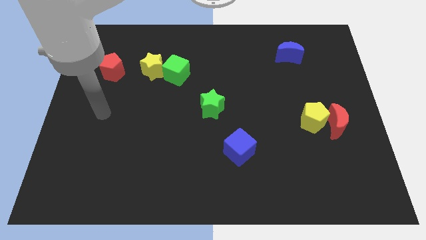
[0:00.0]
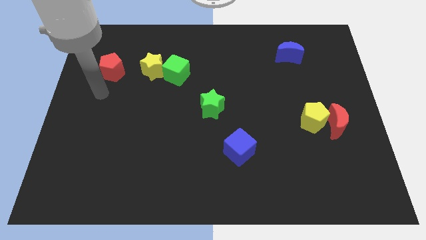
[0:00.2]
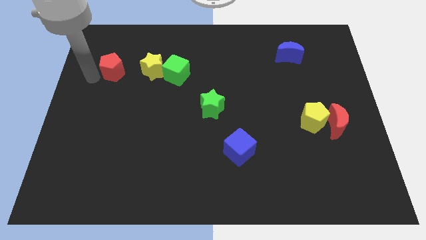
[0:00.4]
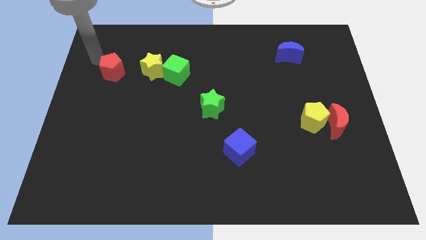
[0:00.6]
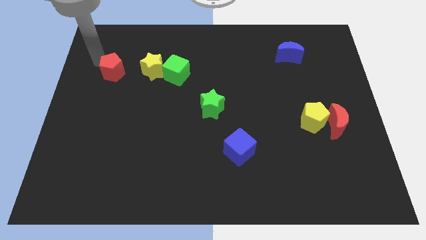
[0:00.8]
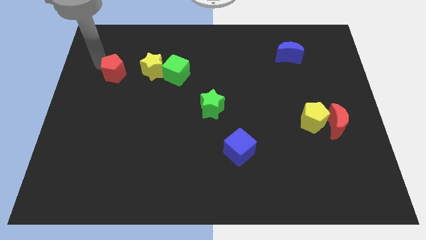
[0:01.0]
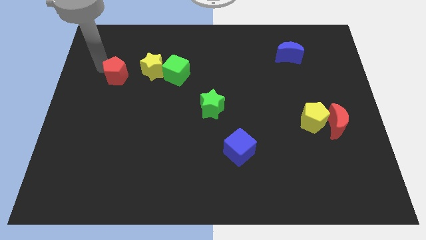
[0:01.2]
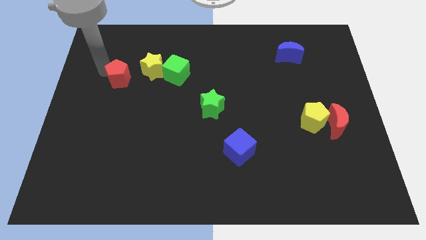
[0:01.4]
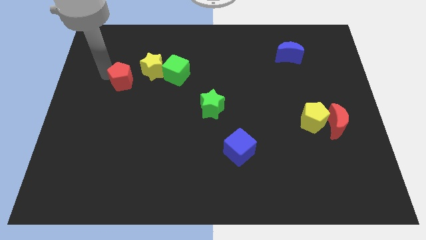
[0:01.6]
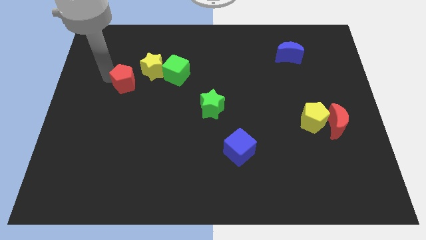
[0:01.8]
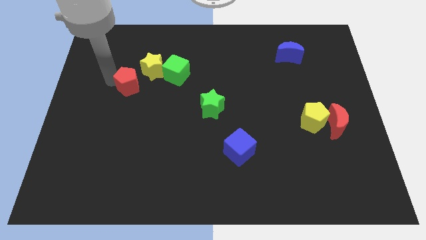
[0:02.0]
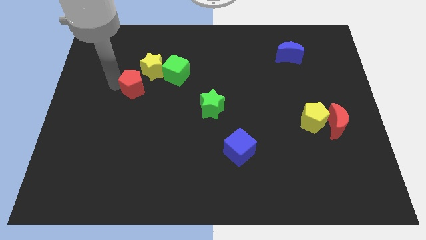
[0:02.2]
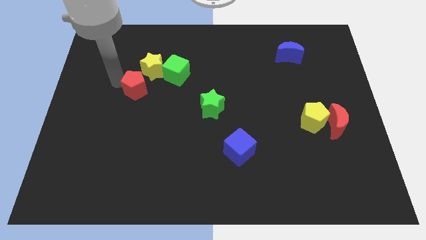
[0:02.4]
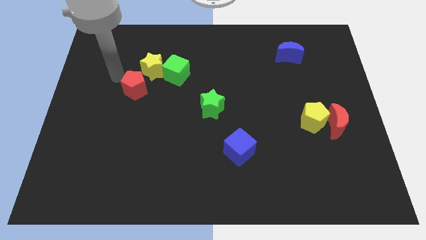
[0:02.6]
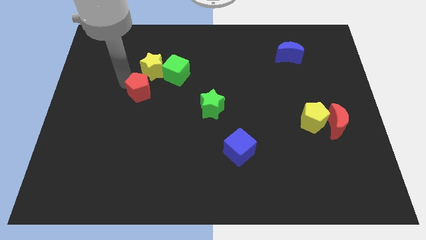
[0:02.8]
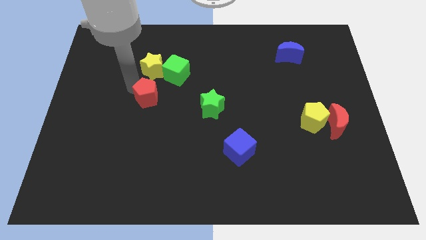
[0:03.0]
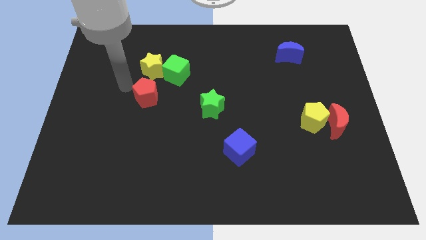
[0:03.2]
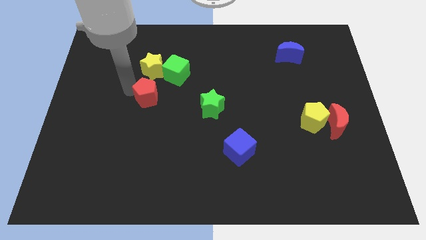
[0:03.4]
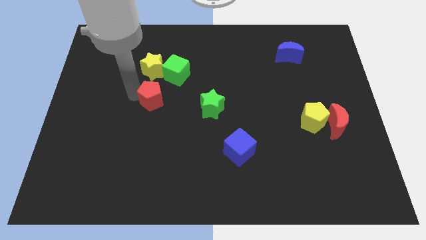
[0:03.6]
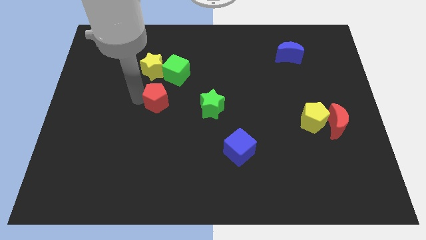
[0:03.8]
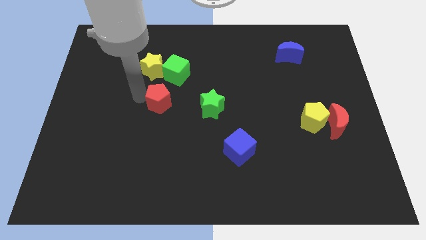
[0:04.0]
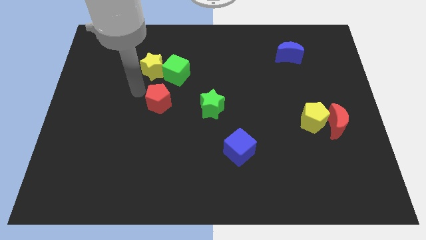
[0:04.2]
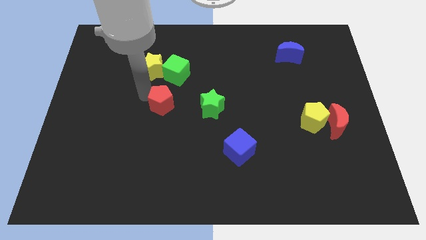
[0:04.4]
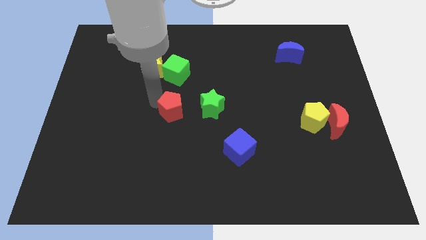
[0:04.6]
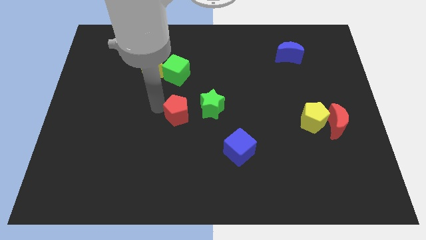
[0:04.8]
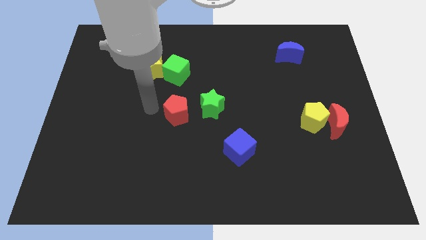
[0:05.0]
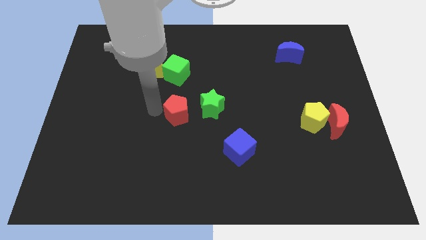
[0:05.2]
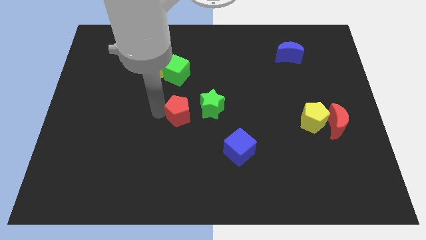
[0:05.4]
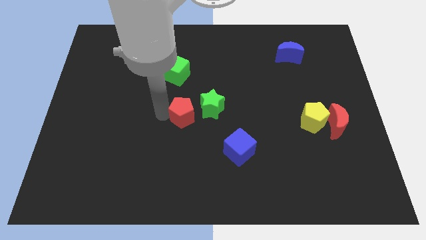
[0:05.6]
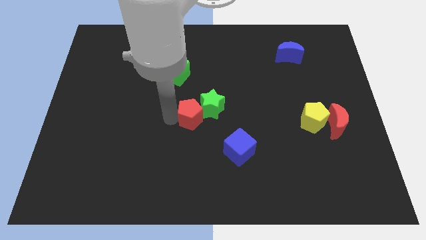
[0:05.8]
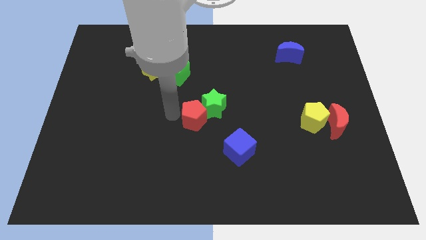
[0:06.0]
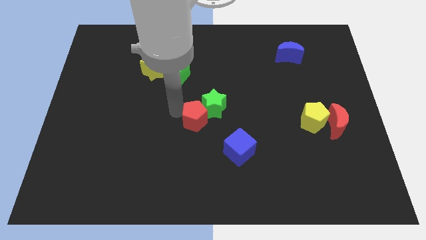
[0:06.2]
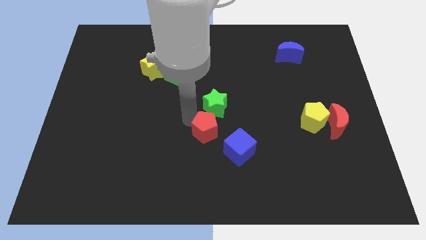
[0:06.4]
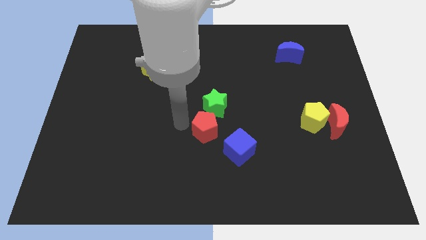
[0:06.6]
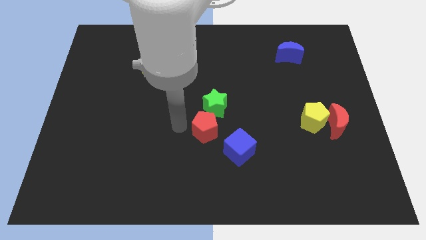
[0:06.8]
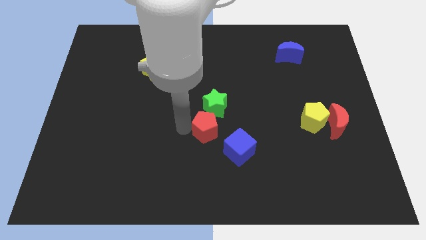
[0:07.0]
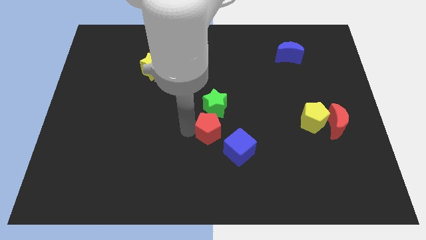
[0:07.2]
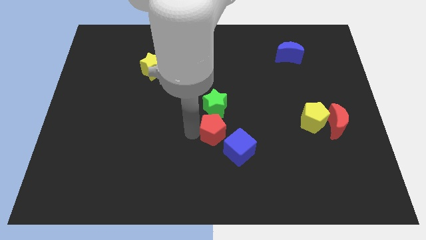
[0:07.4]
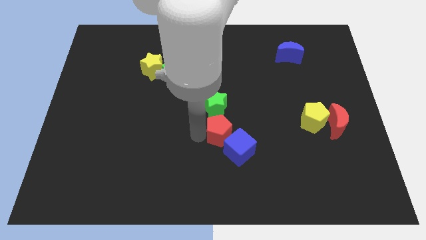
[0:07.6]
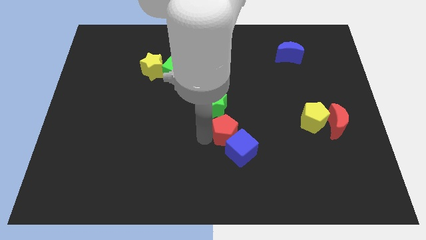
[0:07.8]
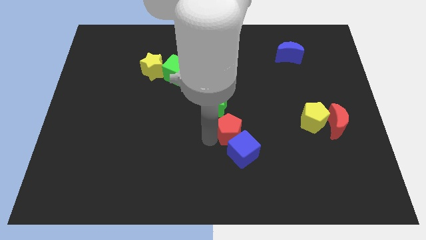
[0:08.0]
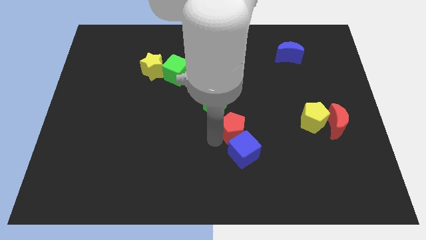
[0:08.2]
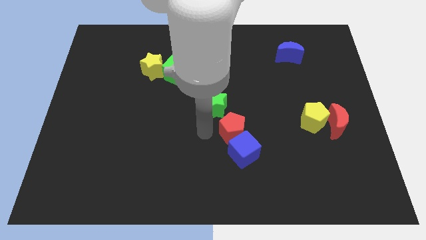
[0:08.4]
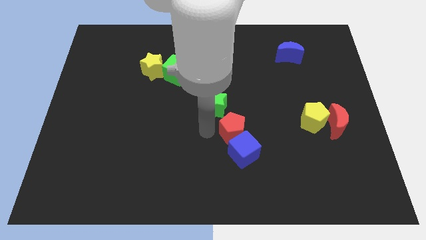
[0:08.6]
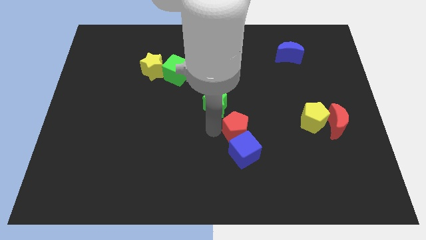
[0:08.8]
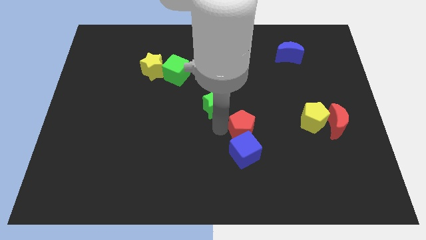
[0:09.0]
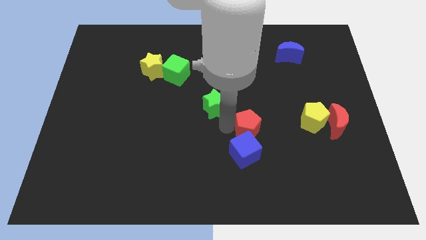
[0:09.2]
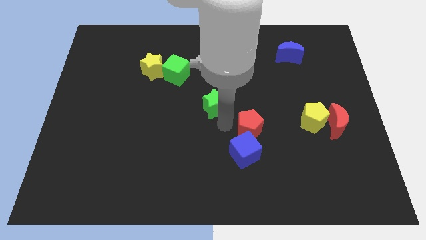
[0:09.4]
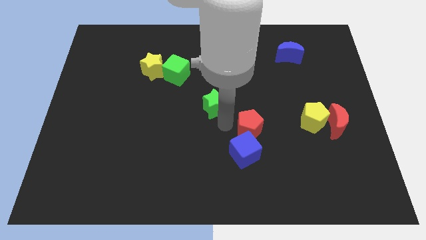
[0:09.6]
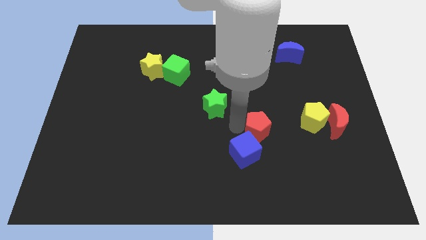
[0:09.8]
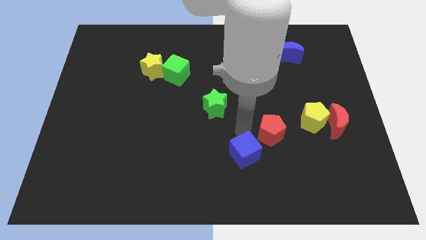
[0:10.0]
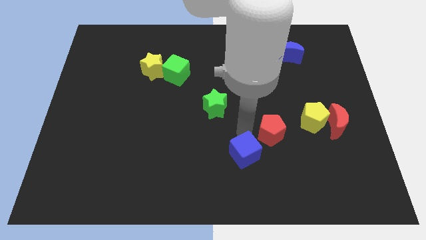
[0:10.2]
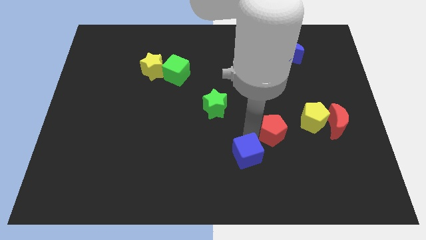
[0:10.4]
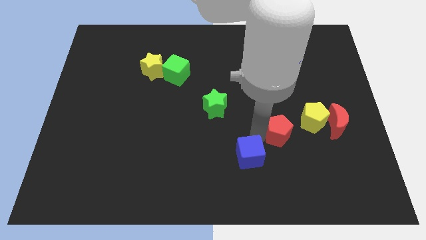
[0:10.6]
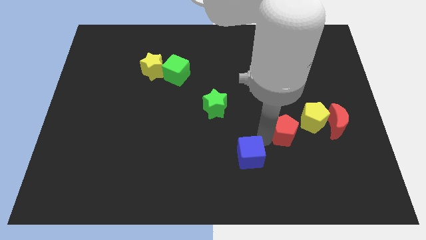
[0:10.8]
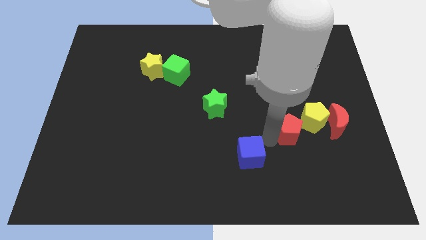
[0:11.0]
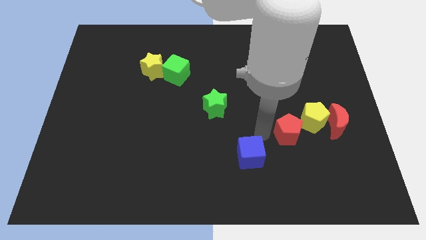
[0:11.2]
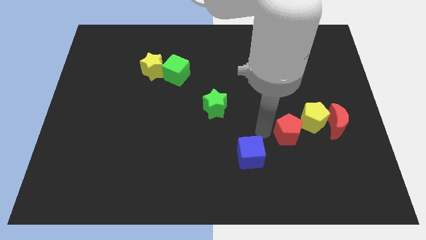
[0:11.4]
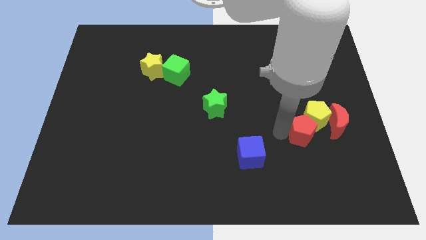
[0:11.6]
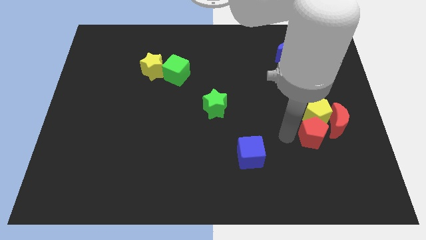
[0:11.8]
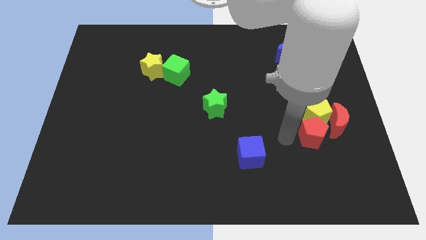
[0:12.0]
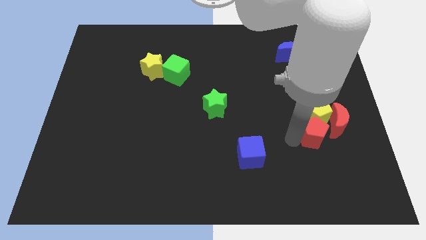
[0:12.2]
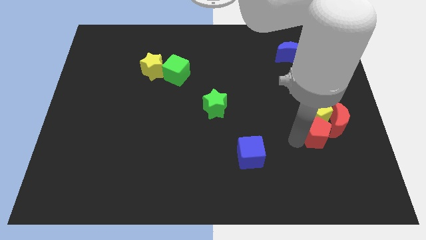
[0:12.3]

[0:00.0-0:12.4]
push the red pentagon diagonally down and to the right of the yellow pentagon
